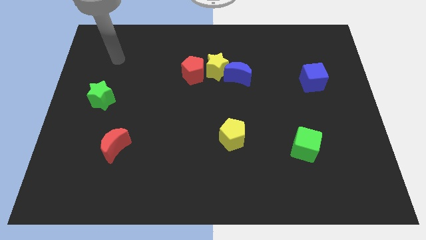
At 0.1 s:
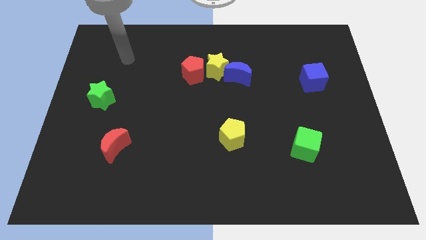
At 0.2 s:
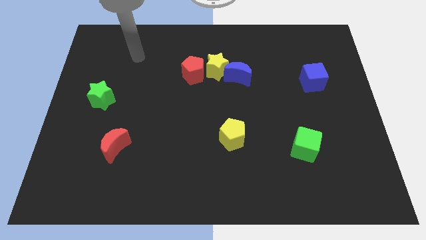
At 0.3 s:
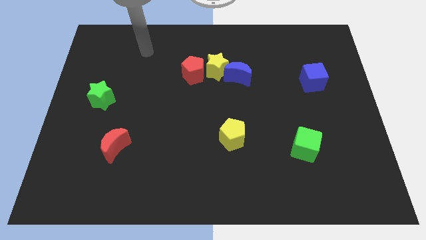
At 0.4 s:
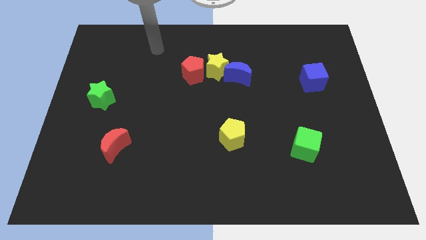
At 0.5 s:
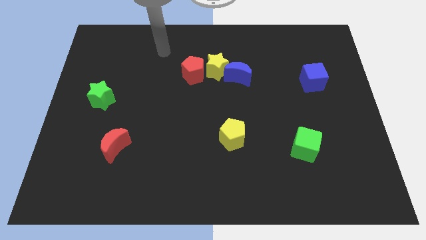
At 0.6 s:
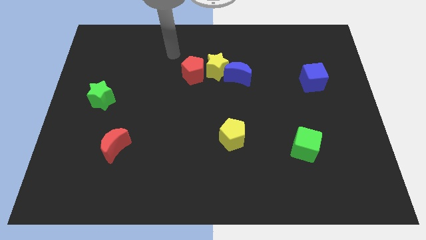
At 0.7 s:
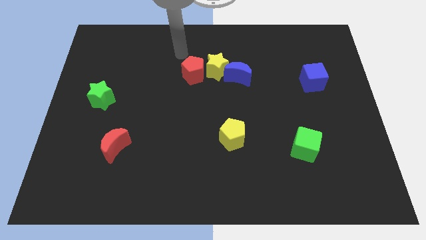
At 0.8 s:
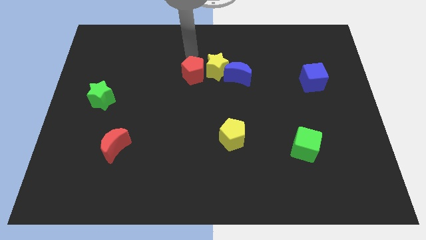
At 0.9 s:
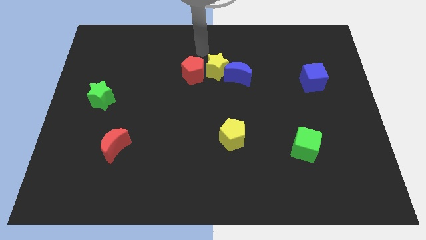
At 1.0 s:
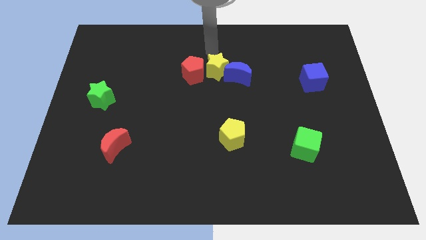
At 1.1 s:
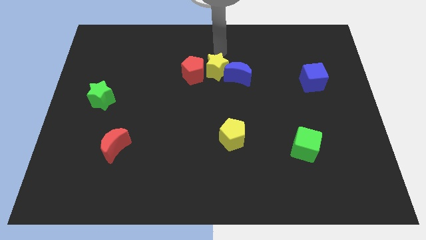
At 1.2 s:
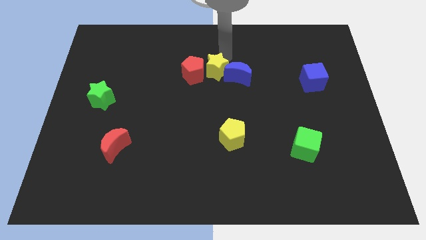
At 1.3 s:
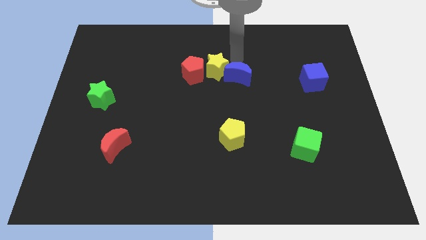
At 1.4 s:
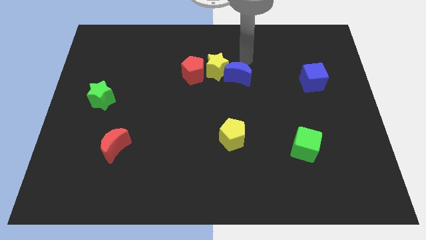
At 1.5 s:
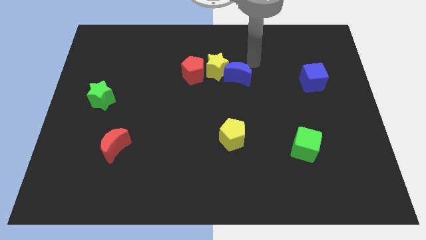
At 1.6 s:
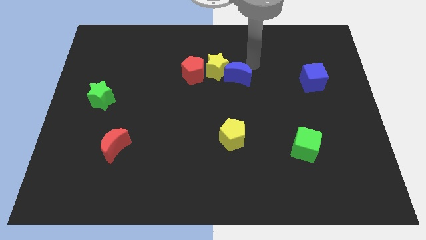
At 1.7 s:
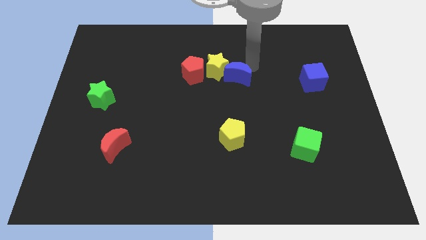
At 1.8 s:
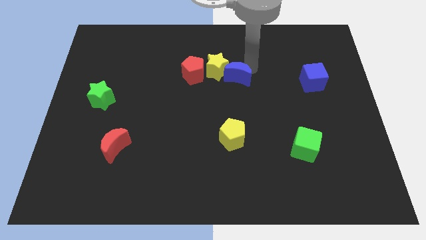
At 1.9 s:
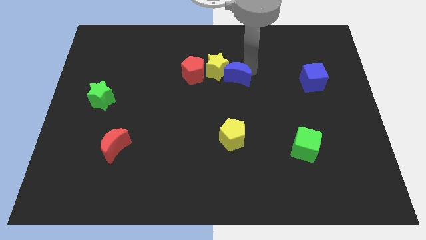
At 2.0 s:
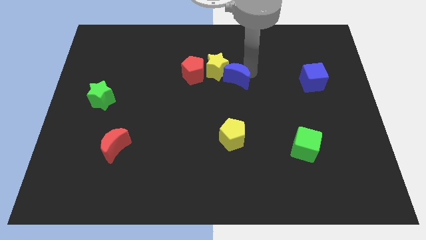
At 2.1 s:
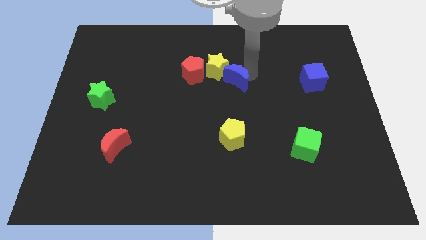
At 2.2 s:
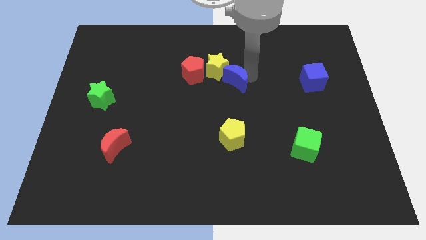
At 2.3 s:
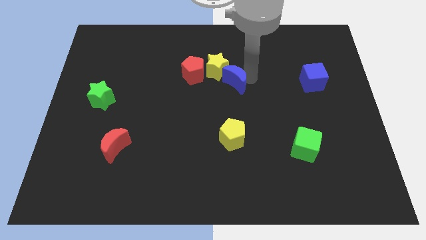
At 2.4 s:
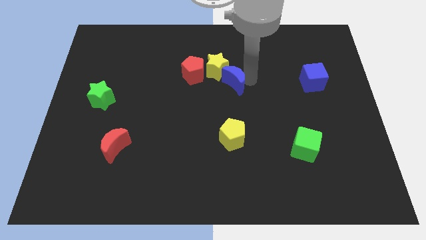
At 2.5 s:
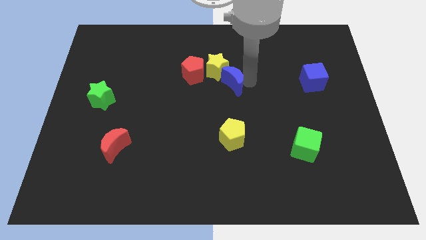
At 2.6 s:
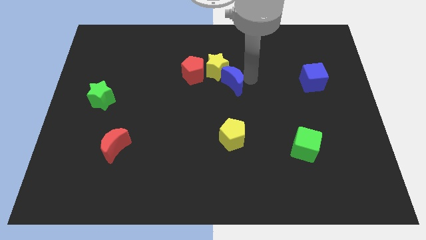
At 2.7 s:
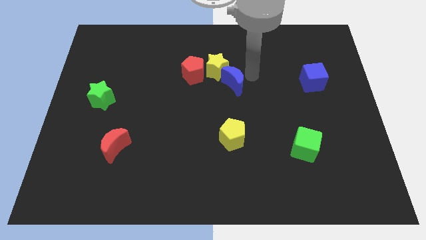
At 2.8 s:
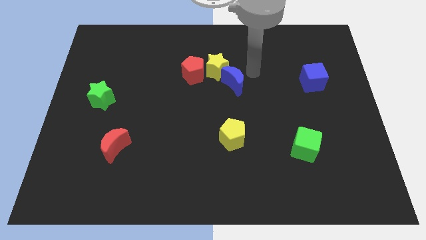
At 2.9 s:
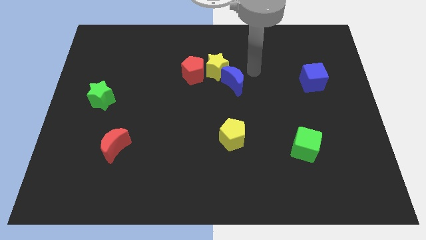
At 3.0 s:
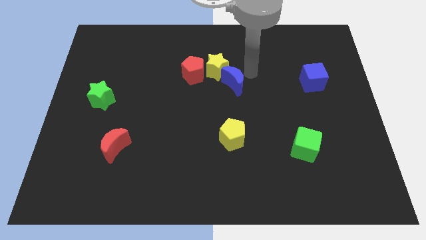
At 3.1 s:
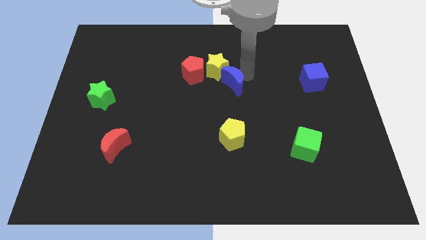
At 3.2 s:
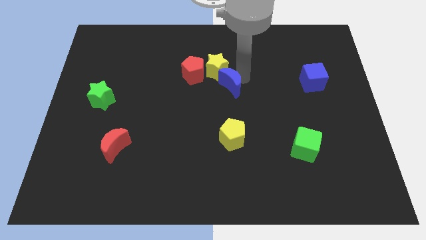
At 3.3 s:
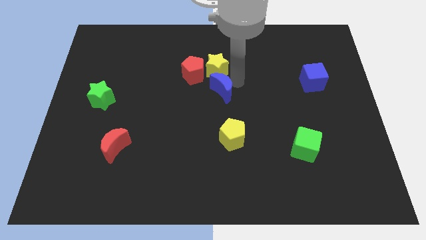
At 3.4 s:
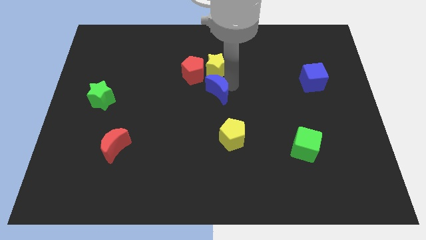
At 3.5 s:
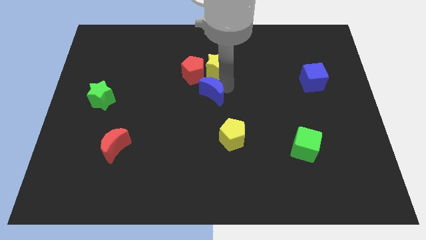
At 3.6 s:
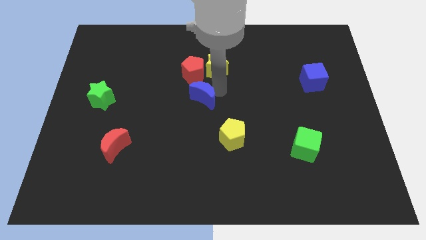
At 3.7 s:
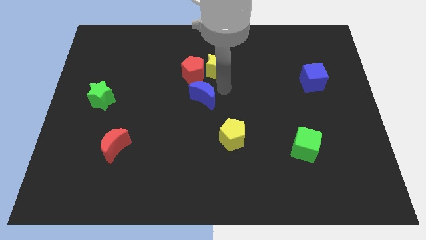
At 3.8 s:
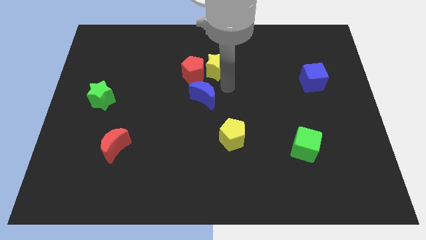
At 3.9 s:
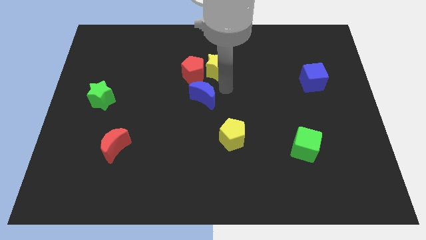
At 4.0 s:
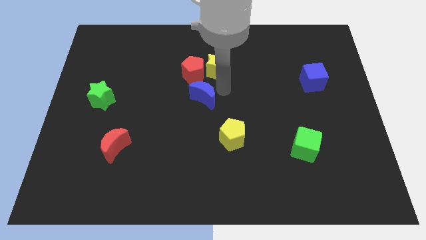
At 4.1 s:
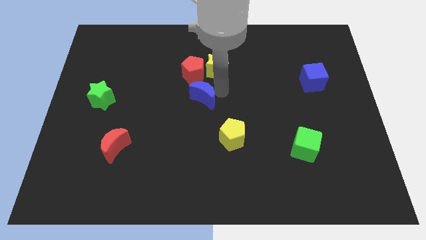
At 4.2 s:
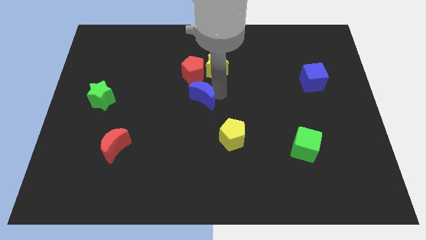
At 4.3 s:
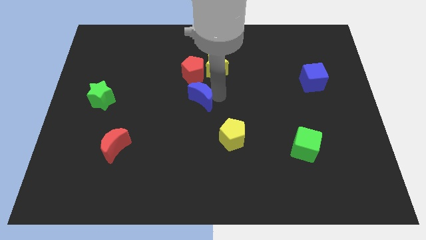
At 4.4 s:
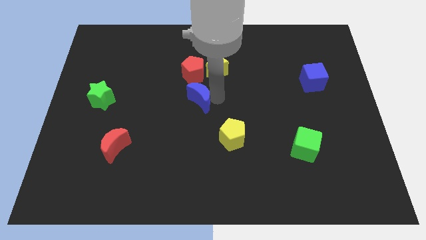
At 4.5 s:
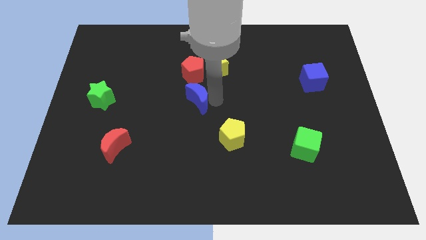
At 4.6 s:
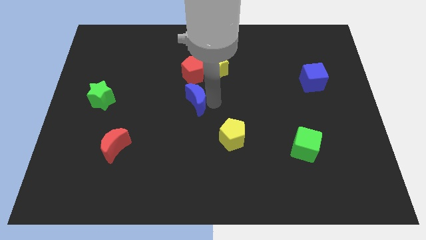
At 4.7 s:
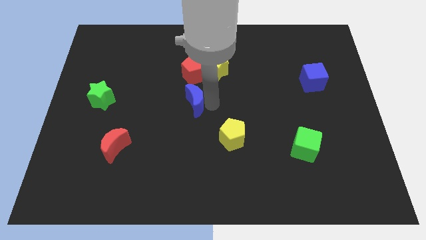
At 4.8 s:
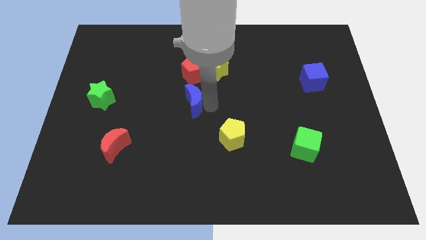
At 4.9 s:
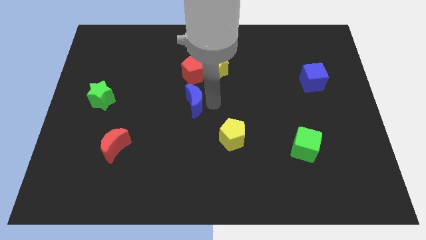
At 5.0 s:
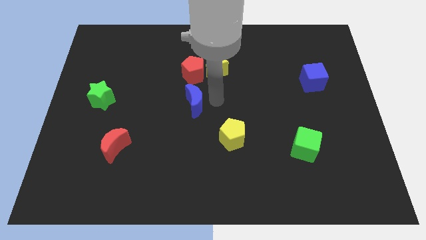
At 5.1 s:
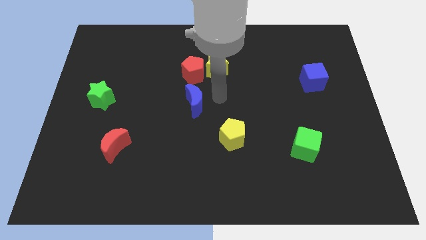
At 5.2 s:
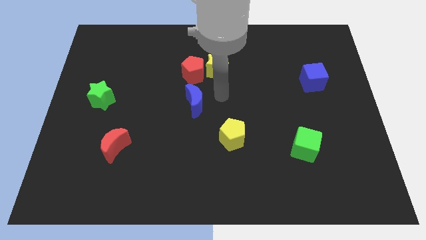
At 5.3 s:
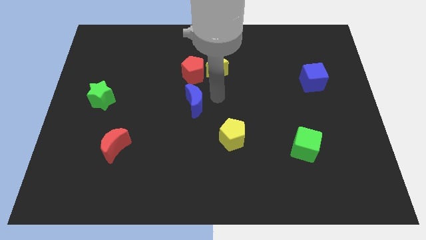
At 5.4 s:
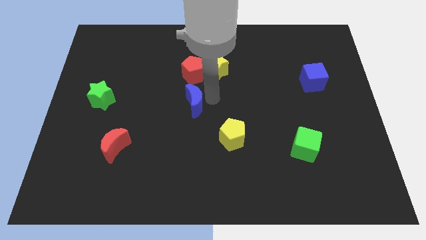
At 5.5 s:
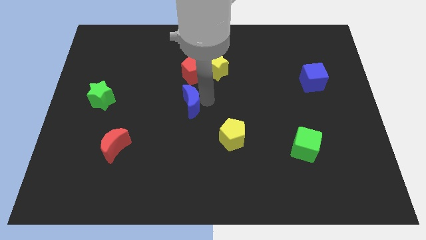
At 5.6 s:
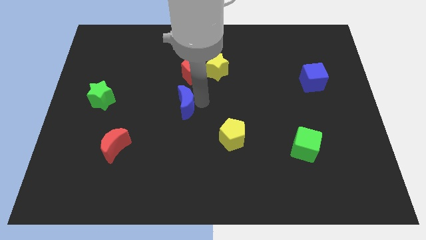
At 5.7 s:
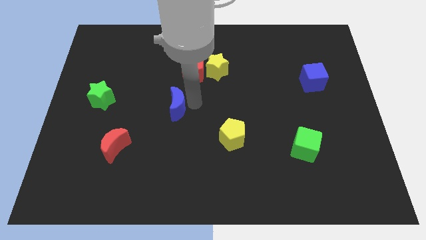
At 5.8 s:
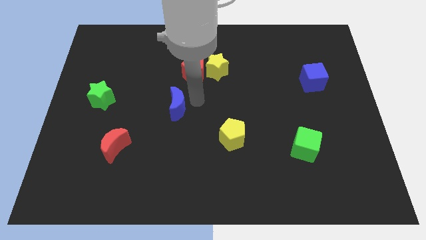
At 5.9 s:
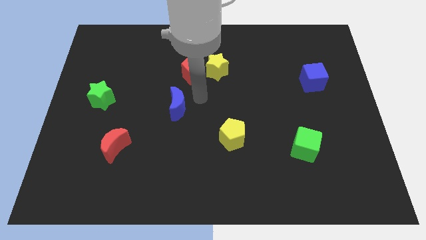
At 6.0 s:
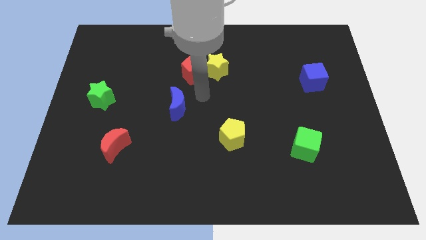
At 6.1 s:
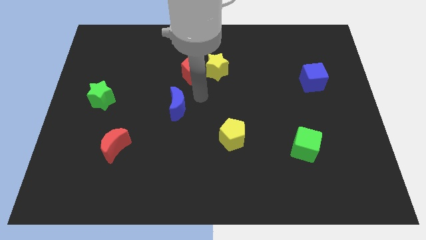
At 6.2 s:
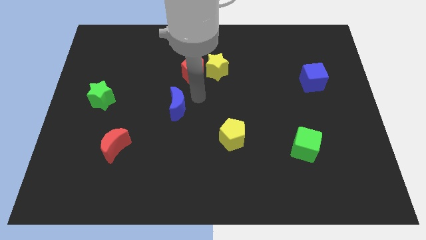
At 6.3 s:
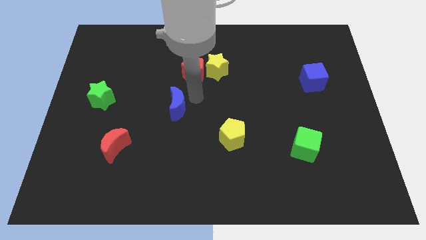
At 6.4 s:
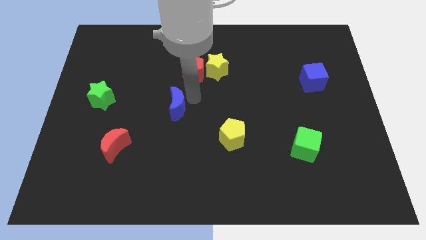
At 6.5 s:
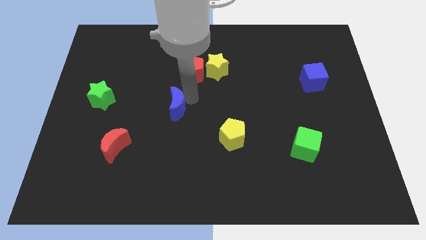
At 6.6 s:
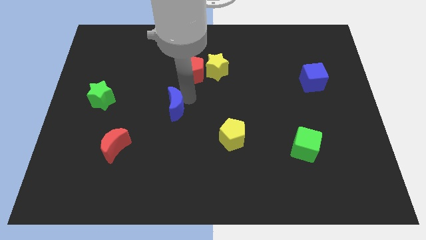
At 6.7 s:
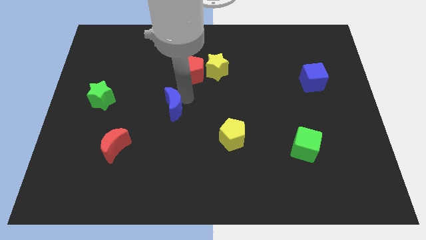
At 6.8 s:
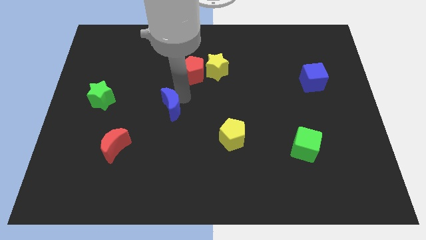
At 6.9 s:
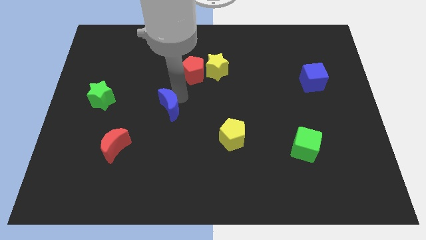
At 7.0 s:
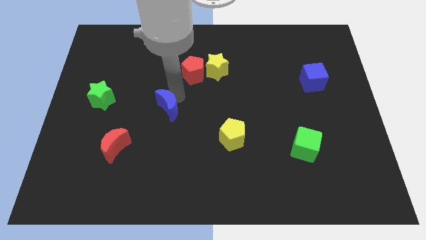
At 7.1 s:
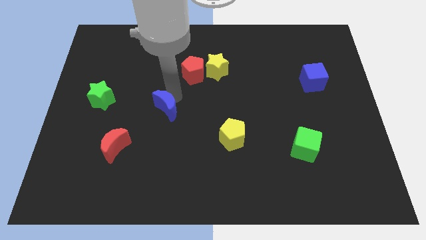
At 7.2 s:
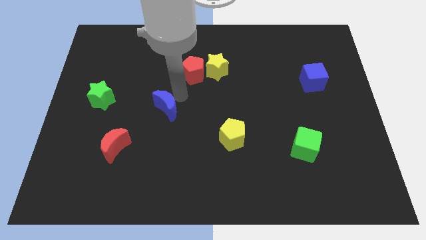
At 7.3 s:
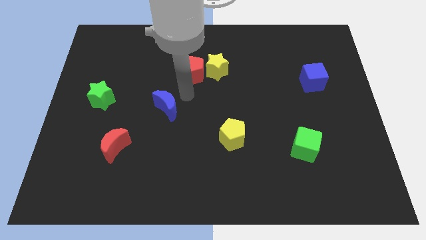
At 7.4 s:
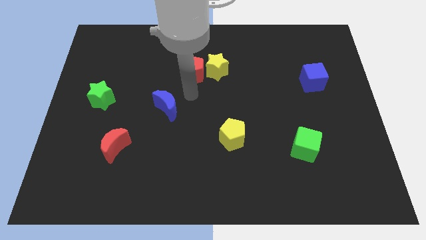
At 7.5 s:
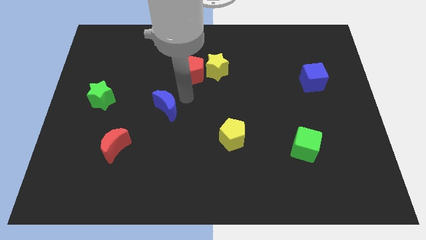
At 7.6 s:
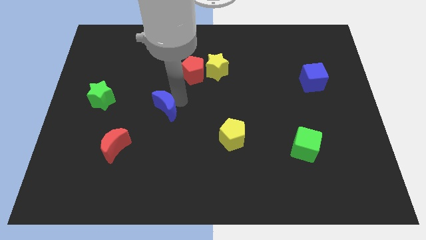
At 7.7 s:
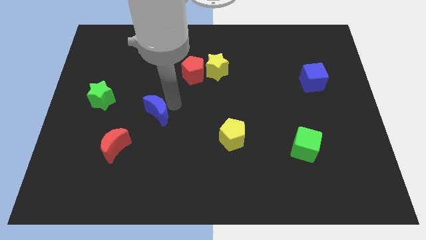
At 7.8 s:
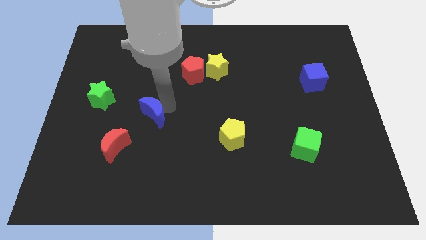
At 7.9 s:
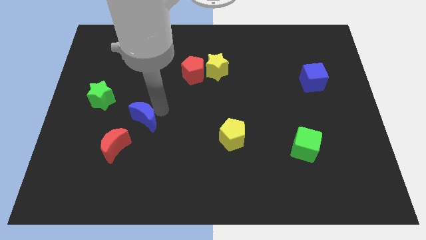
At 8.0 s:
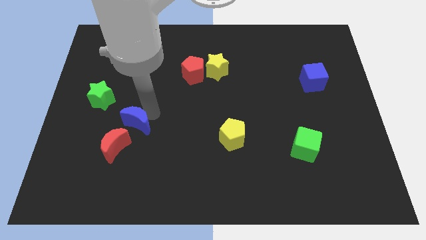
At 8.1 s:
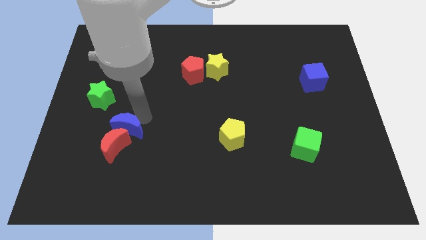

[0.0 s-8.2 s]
move the blue moon towards the red moon
